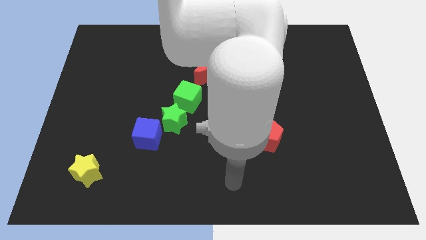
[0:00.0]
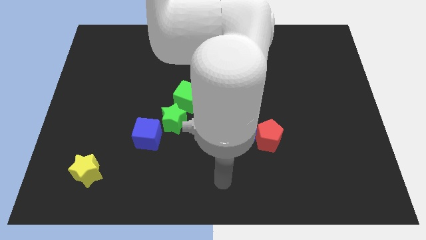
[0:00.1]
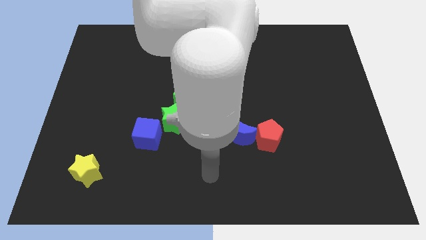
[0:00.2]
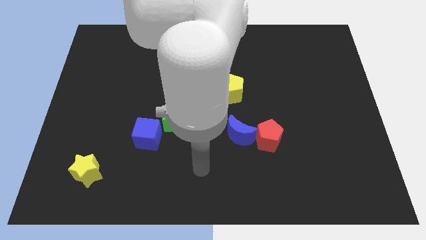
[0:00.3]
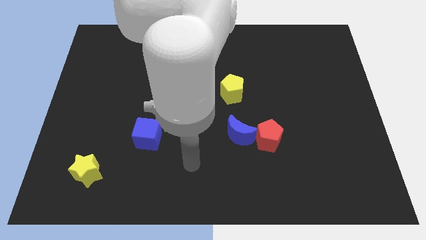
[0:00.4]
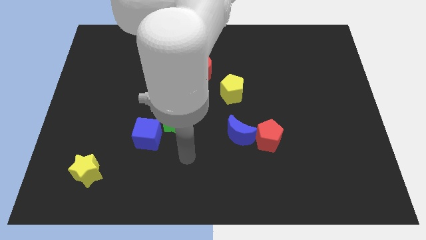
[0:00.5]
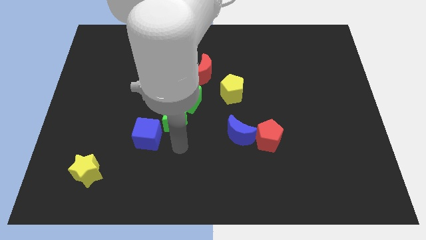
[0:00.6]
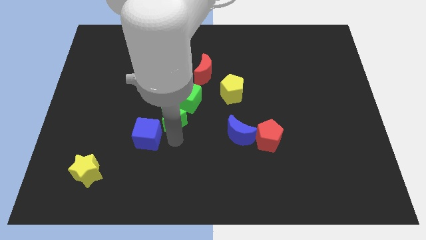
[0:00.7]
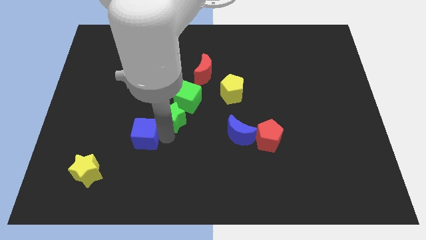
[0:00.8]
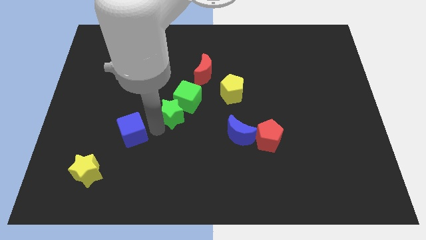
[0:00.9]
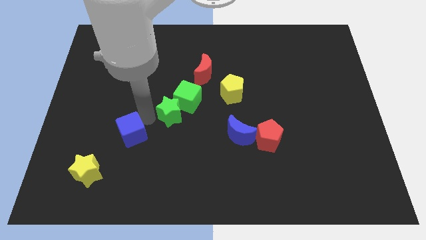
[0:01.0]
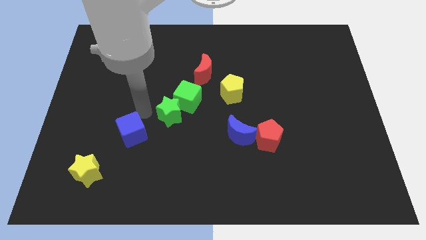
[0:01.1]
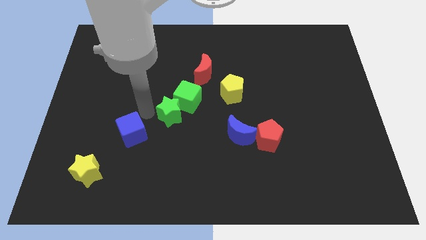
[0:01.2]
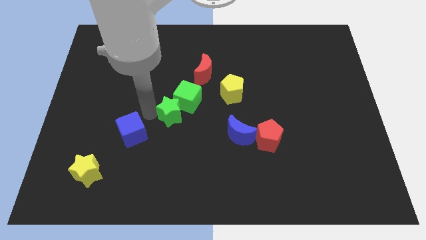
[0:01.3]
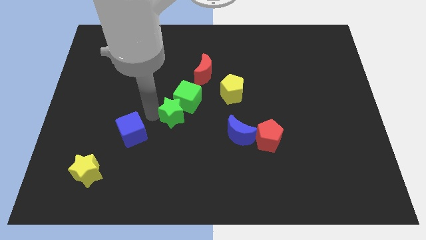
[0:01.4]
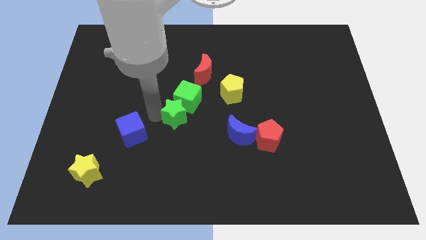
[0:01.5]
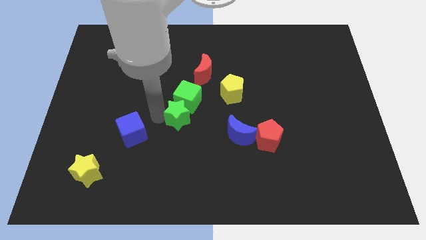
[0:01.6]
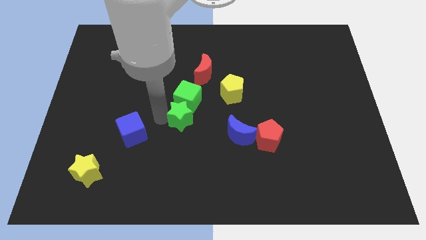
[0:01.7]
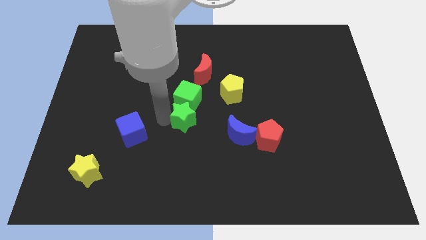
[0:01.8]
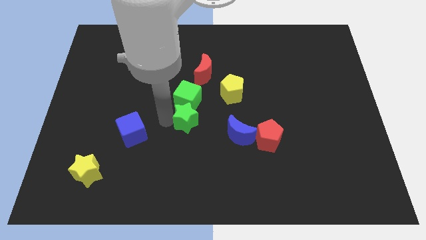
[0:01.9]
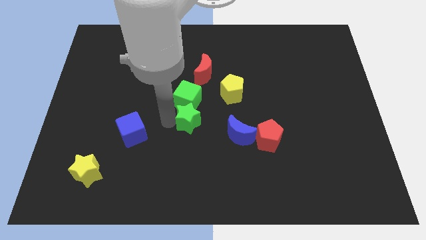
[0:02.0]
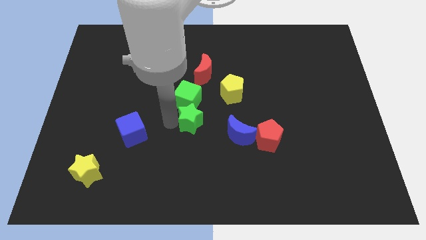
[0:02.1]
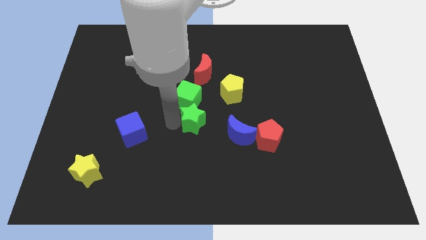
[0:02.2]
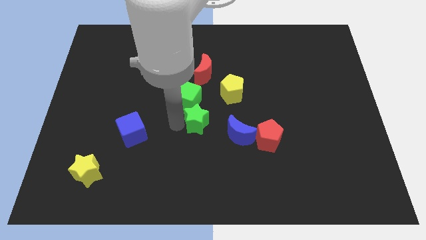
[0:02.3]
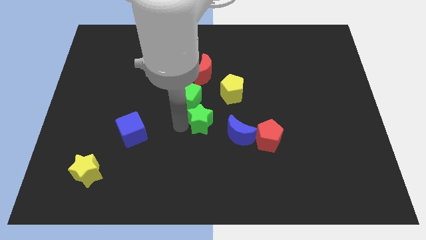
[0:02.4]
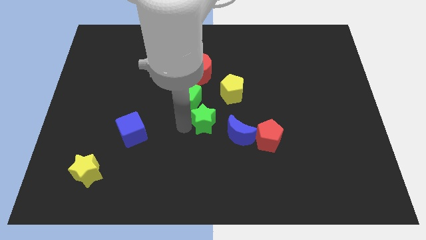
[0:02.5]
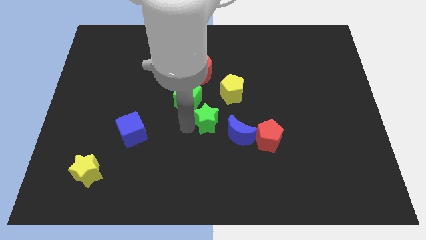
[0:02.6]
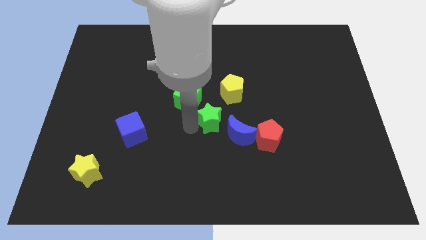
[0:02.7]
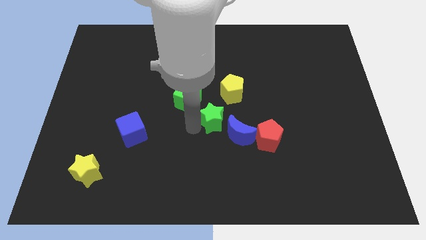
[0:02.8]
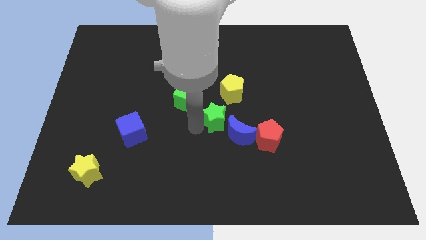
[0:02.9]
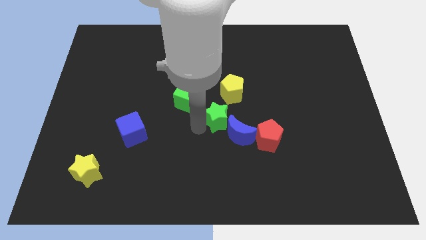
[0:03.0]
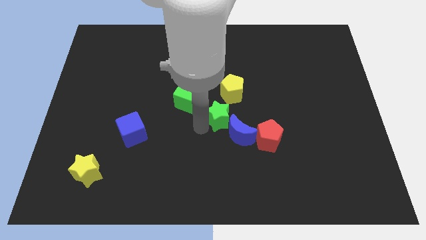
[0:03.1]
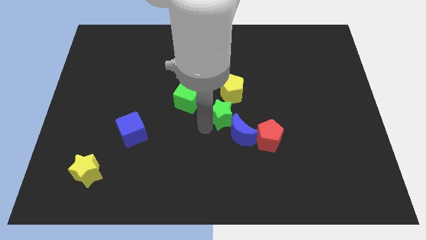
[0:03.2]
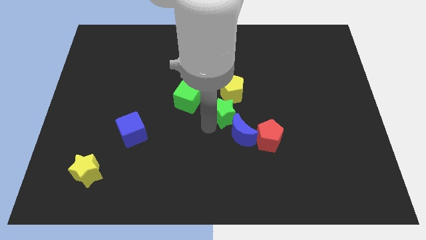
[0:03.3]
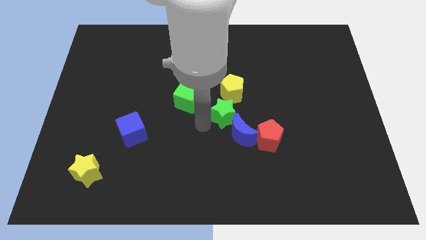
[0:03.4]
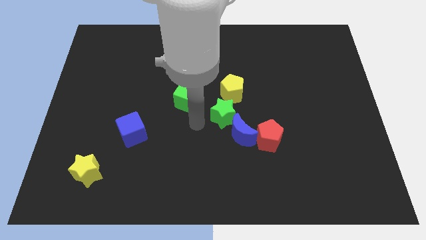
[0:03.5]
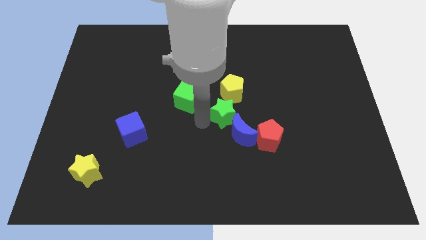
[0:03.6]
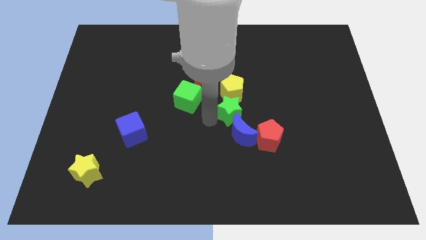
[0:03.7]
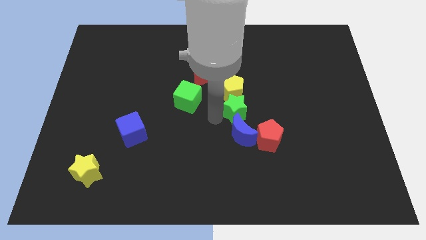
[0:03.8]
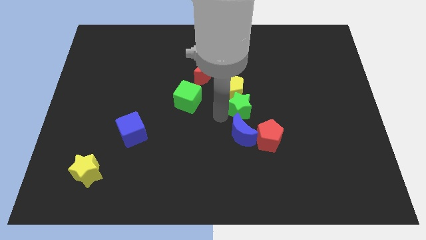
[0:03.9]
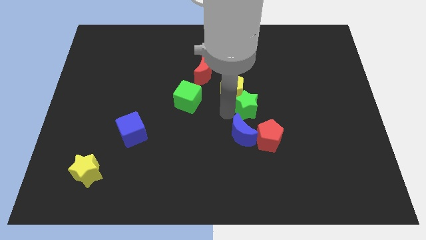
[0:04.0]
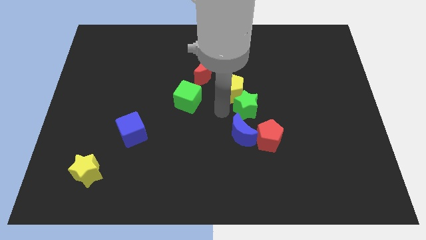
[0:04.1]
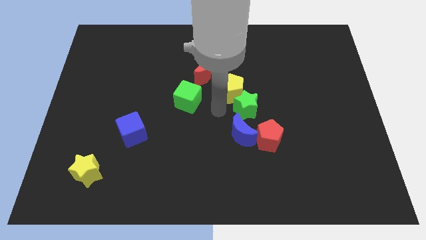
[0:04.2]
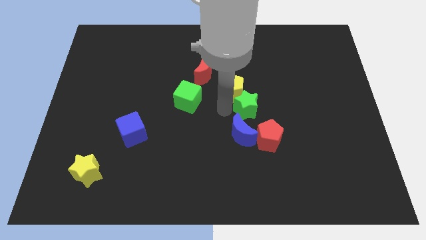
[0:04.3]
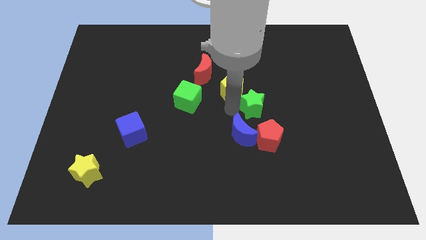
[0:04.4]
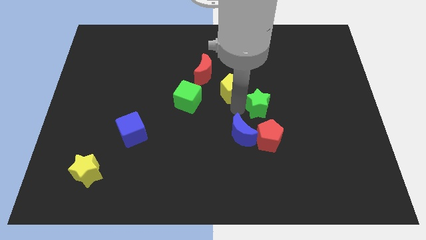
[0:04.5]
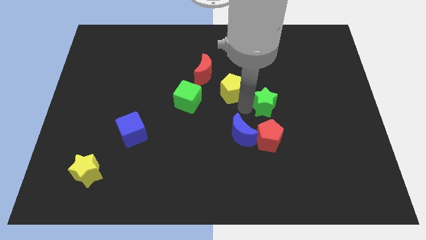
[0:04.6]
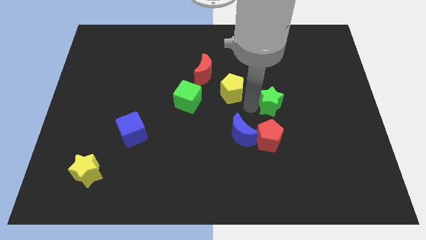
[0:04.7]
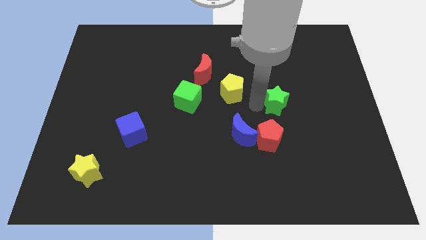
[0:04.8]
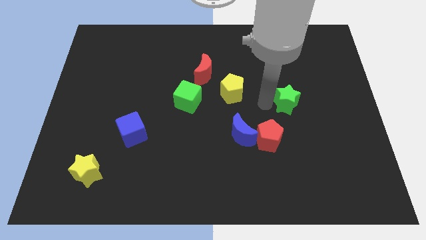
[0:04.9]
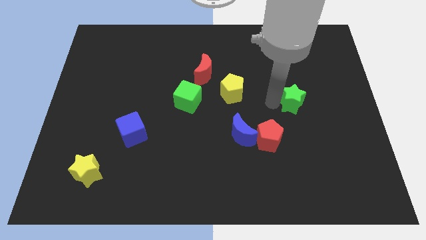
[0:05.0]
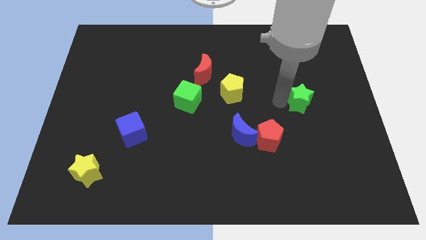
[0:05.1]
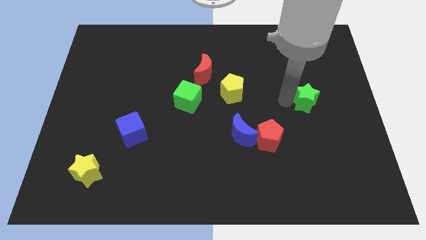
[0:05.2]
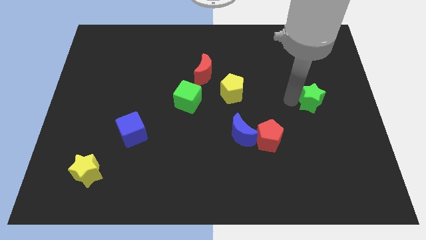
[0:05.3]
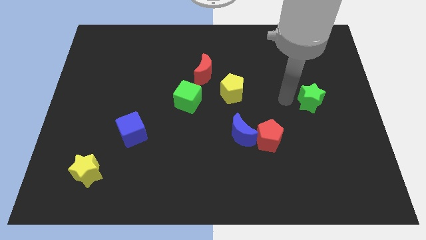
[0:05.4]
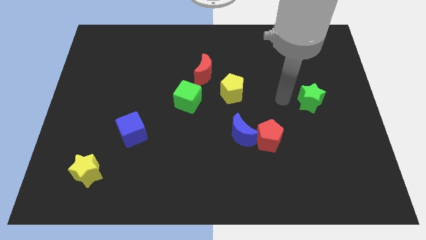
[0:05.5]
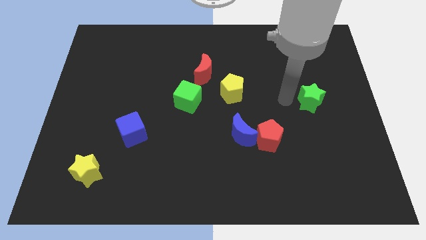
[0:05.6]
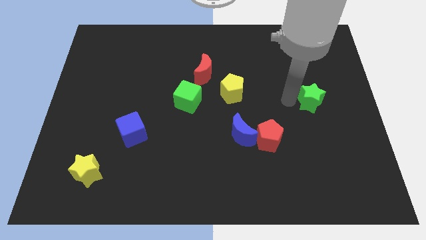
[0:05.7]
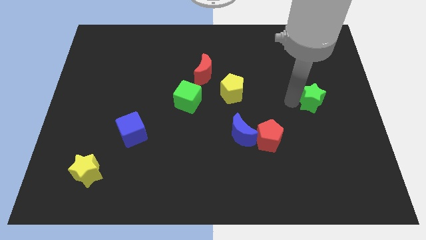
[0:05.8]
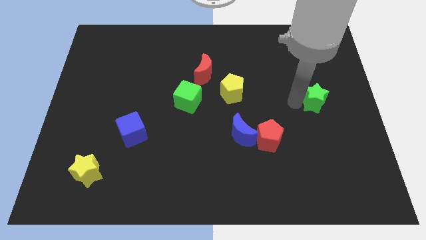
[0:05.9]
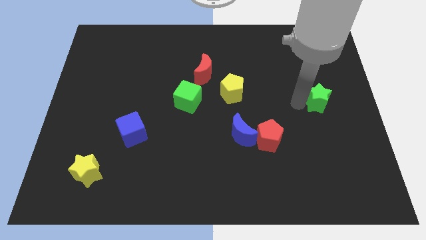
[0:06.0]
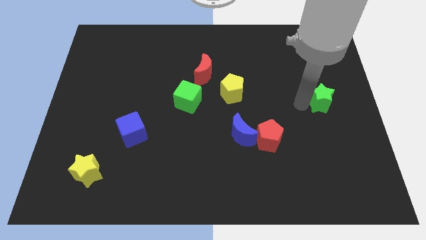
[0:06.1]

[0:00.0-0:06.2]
slide the green star to the right side

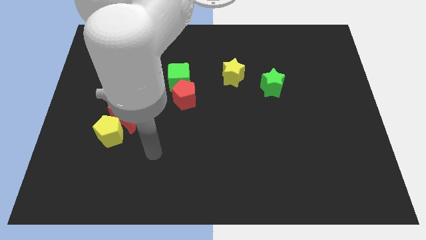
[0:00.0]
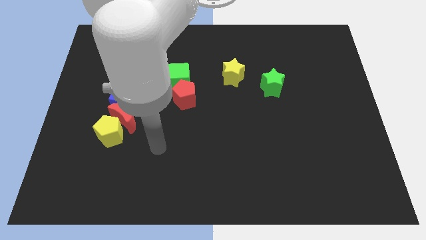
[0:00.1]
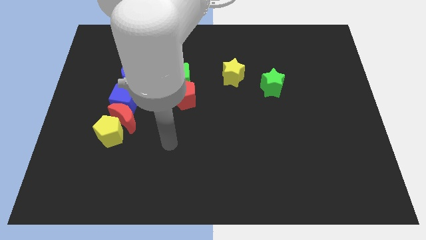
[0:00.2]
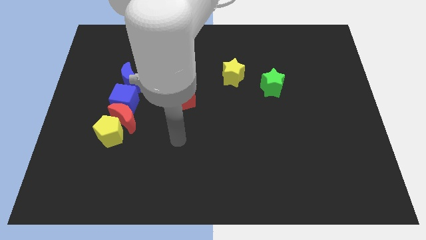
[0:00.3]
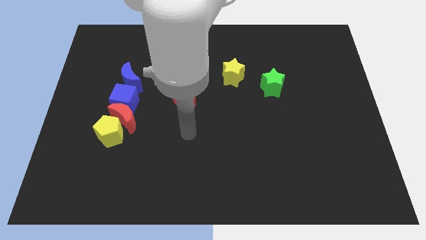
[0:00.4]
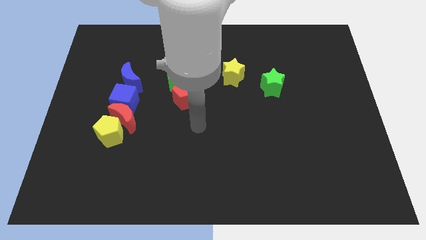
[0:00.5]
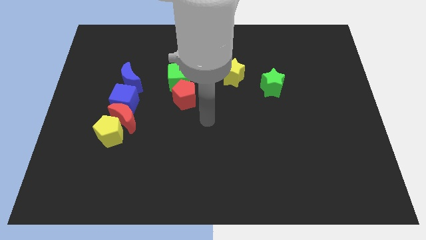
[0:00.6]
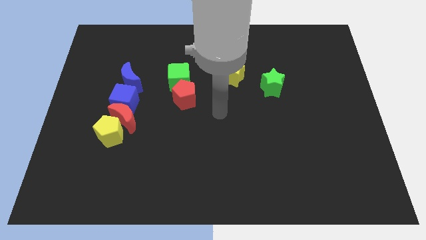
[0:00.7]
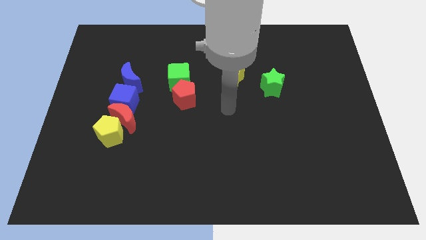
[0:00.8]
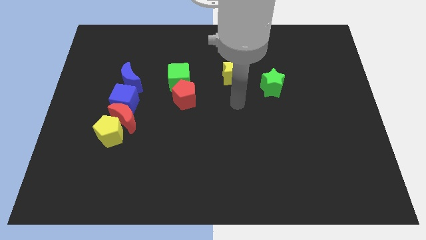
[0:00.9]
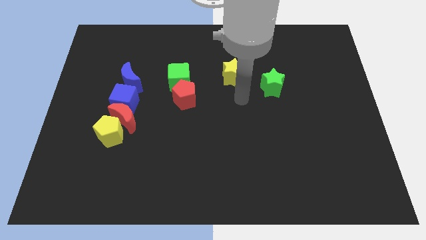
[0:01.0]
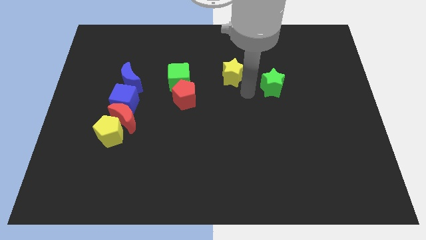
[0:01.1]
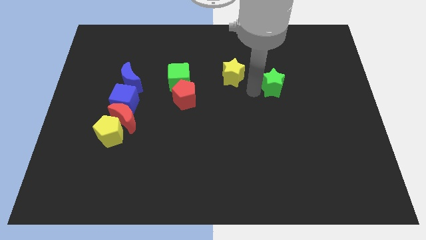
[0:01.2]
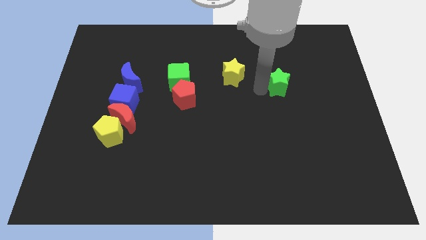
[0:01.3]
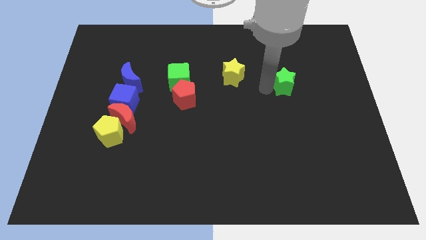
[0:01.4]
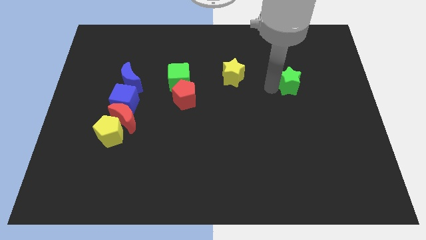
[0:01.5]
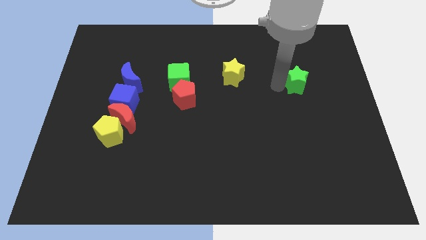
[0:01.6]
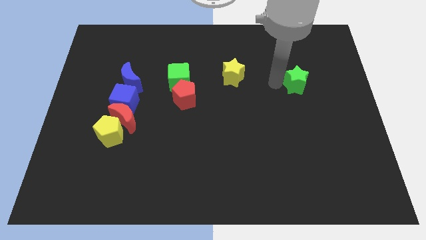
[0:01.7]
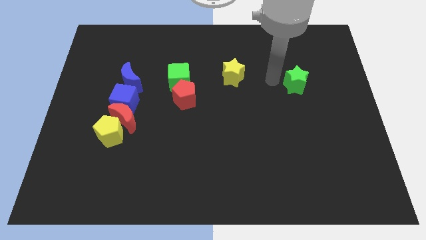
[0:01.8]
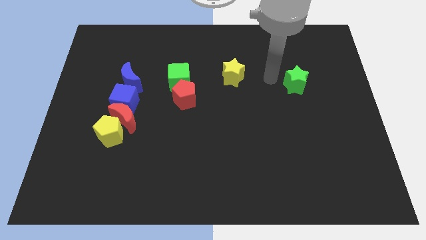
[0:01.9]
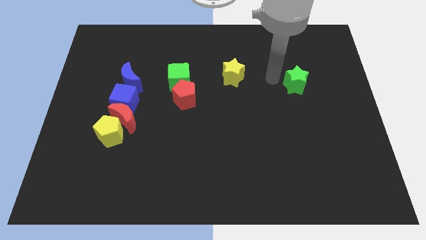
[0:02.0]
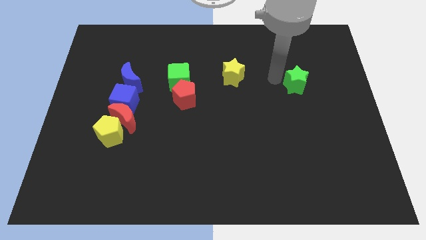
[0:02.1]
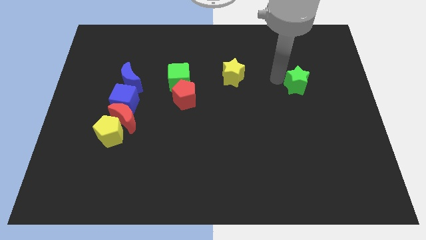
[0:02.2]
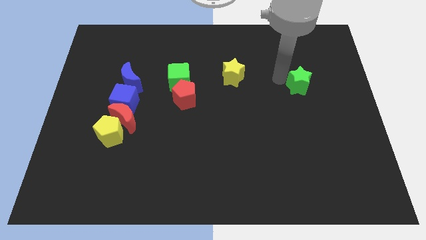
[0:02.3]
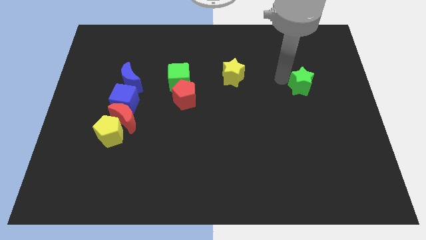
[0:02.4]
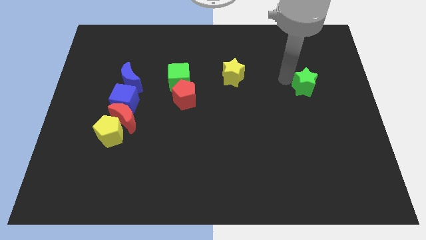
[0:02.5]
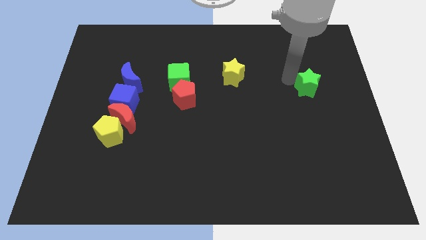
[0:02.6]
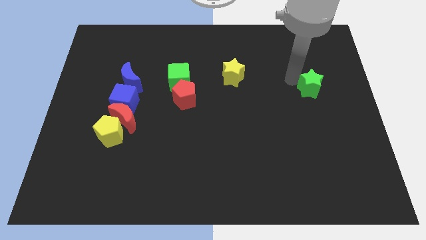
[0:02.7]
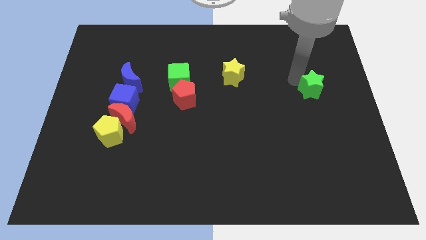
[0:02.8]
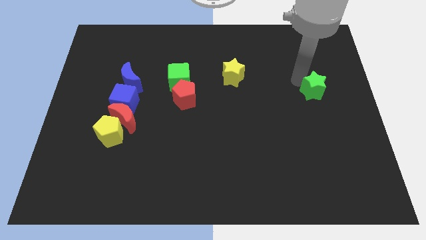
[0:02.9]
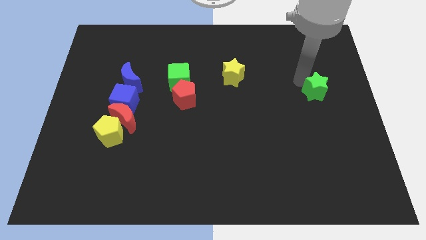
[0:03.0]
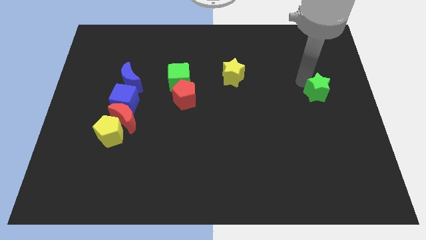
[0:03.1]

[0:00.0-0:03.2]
slide the green star to the center right
